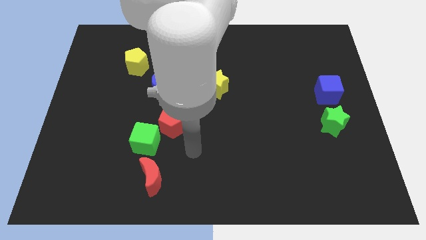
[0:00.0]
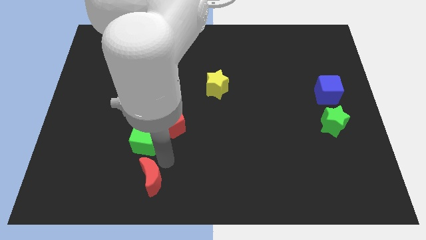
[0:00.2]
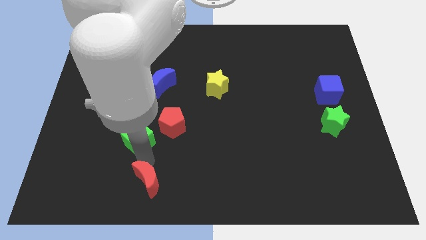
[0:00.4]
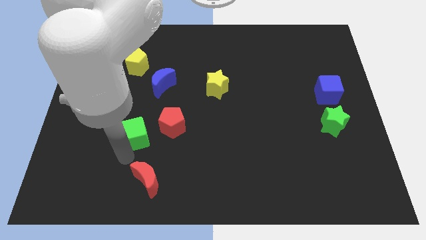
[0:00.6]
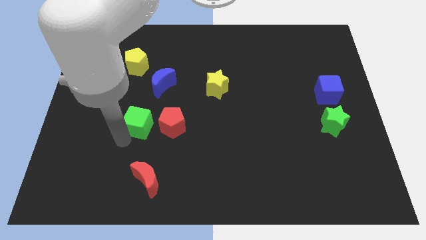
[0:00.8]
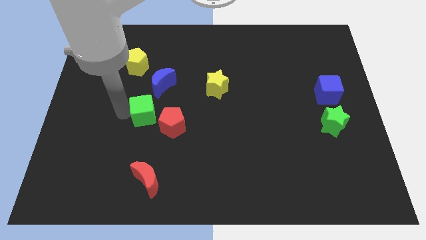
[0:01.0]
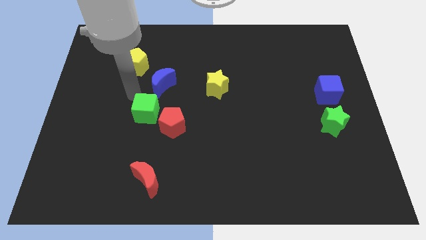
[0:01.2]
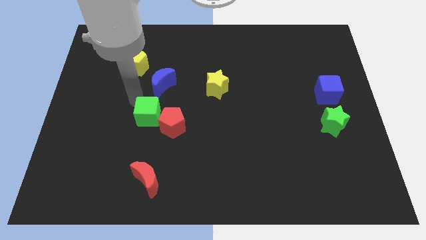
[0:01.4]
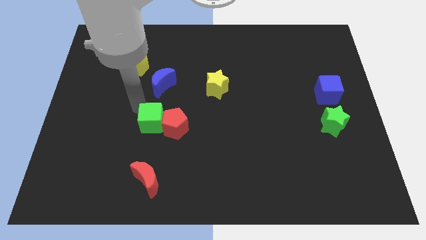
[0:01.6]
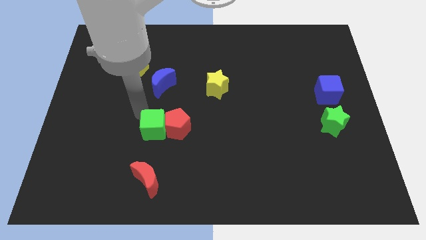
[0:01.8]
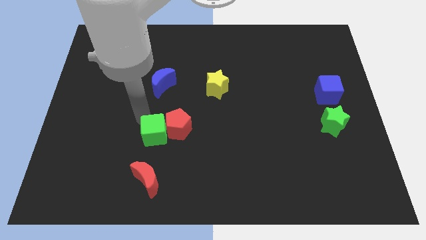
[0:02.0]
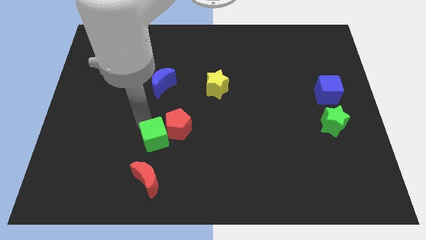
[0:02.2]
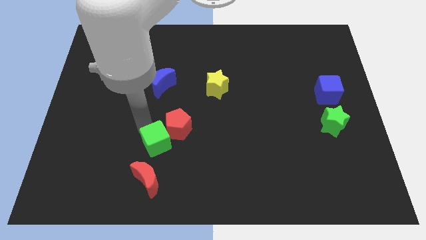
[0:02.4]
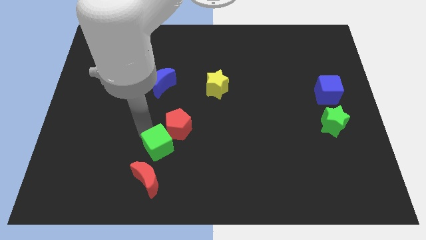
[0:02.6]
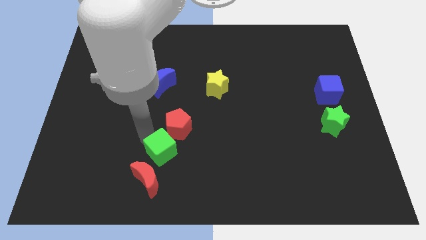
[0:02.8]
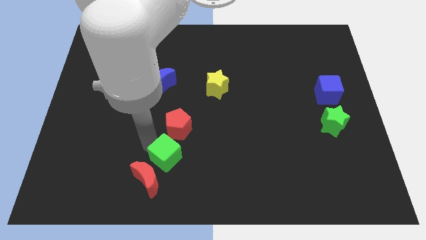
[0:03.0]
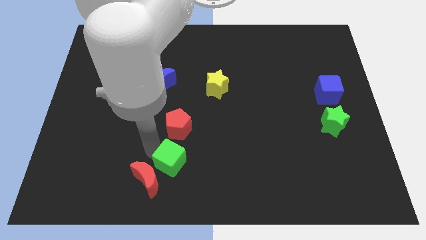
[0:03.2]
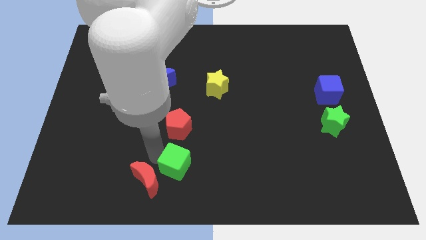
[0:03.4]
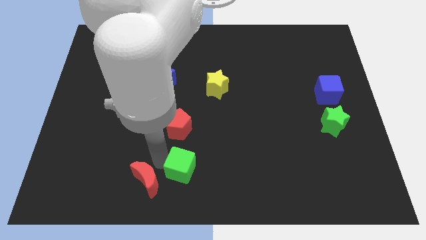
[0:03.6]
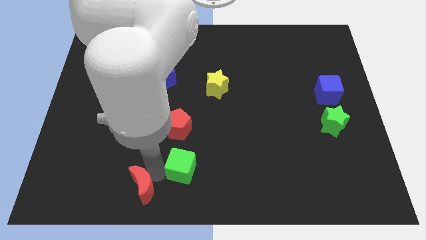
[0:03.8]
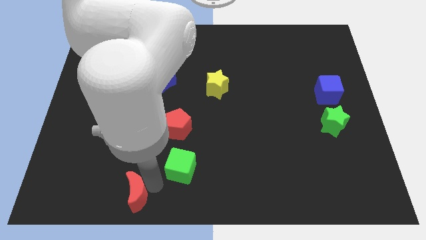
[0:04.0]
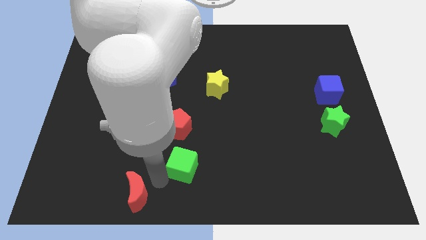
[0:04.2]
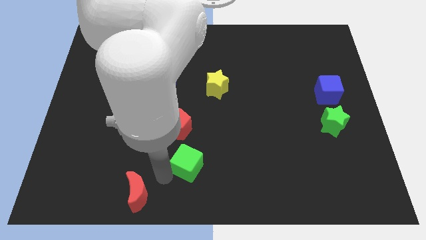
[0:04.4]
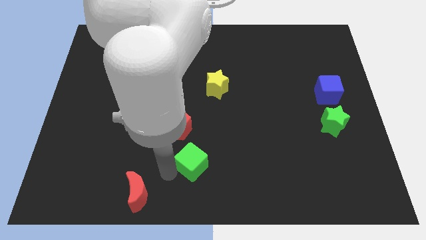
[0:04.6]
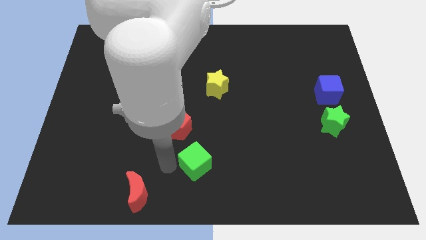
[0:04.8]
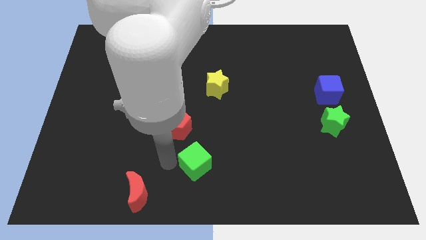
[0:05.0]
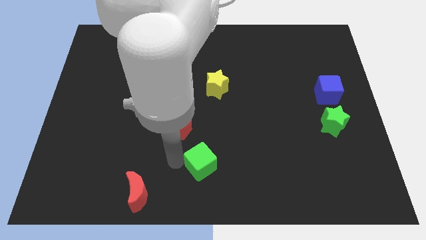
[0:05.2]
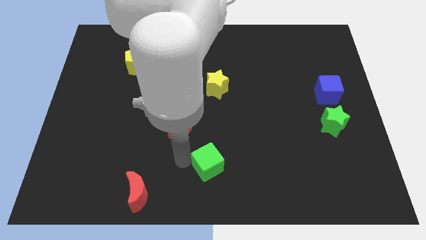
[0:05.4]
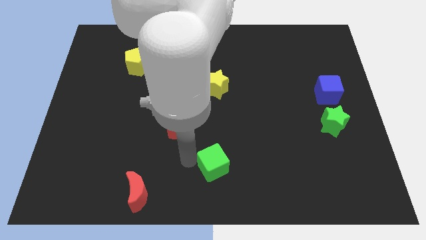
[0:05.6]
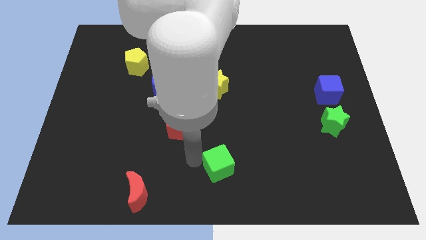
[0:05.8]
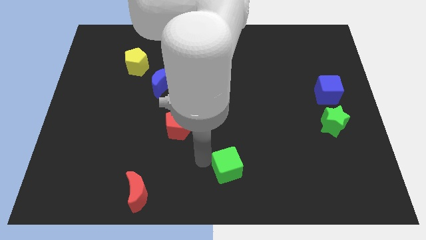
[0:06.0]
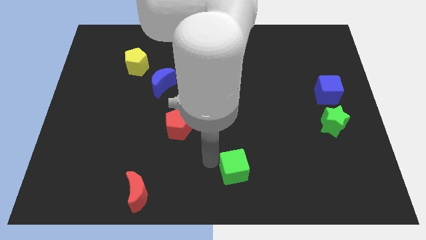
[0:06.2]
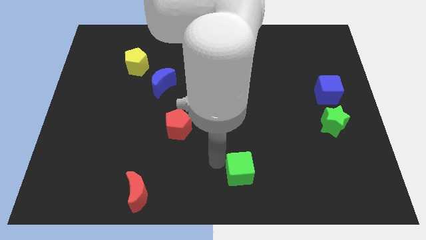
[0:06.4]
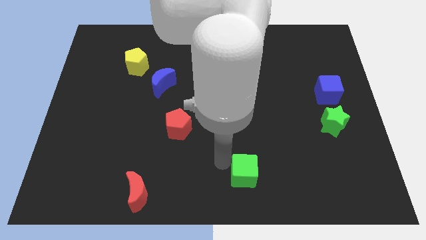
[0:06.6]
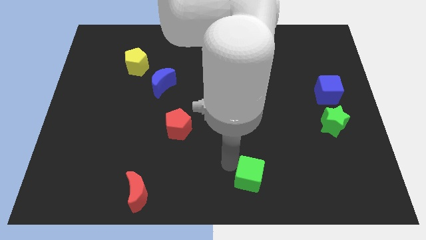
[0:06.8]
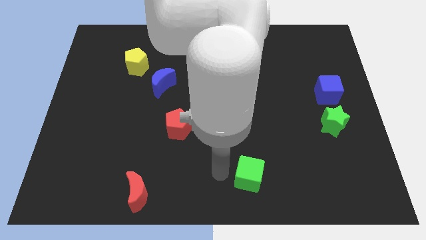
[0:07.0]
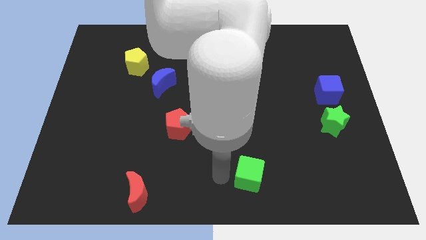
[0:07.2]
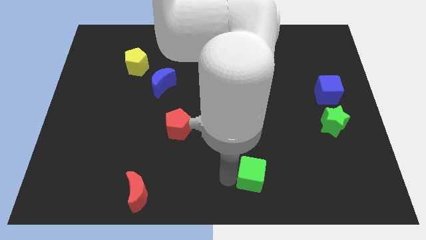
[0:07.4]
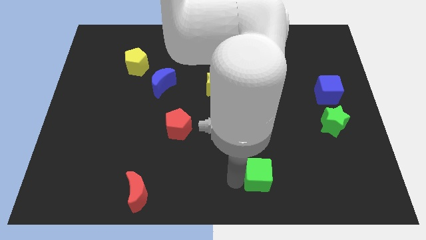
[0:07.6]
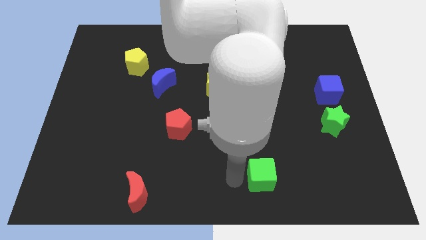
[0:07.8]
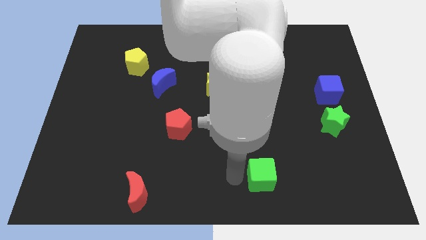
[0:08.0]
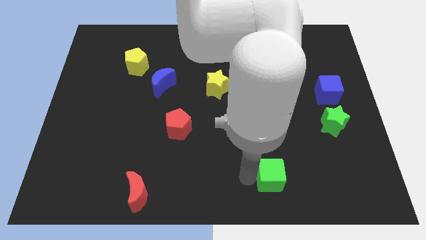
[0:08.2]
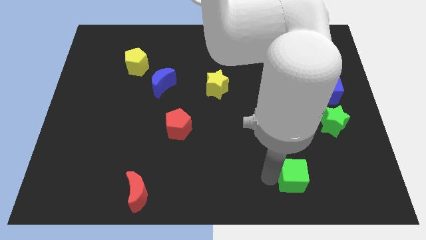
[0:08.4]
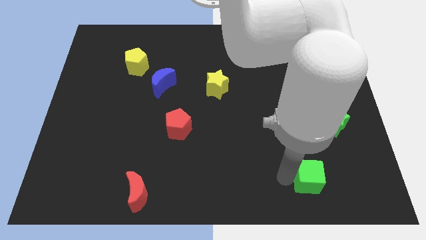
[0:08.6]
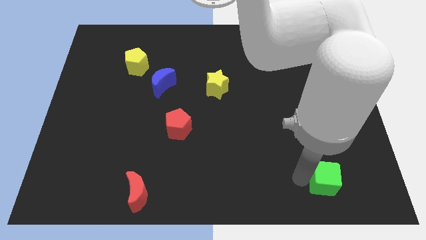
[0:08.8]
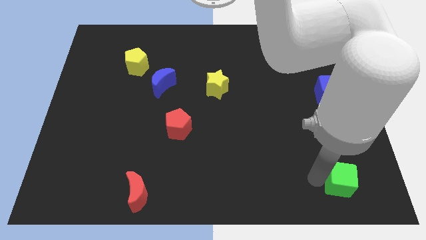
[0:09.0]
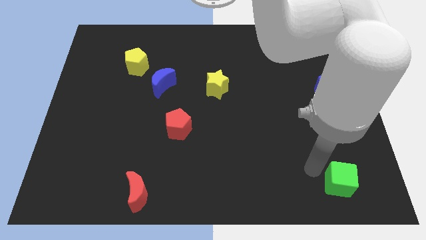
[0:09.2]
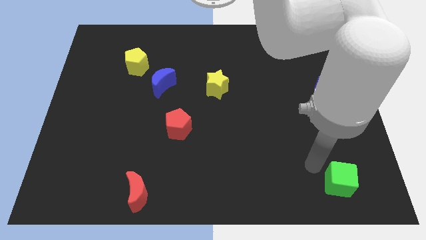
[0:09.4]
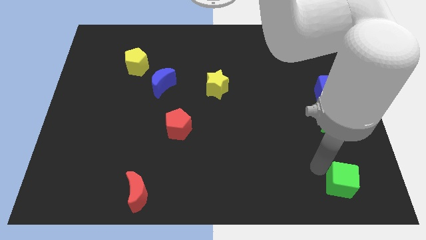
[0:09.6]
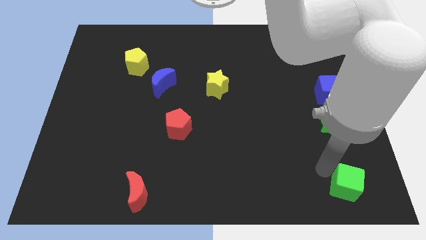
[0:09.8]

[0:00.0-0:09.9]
push the green cube to the bottom right corner
